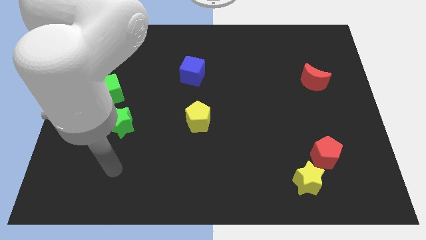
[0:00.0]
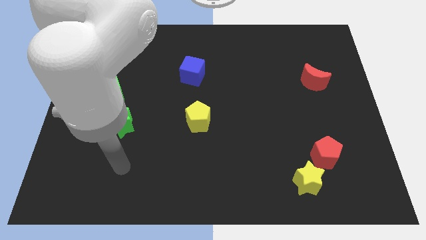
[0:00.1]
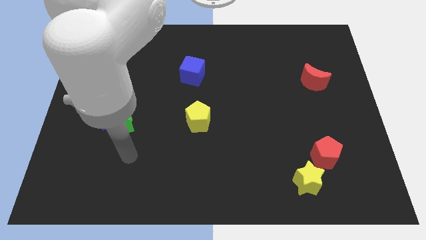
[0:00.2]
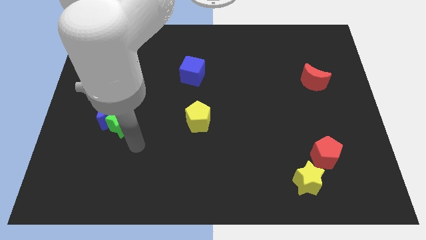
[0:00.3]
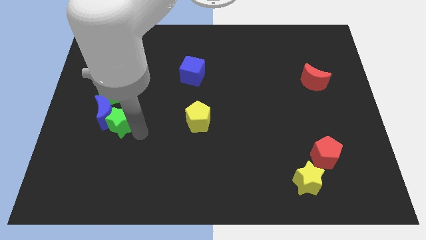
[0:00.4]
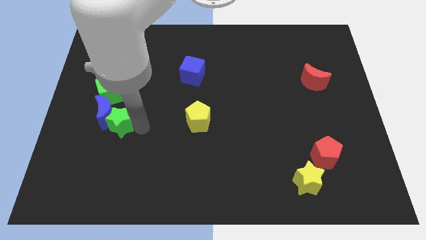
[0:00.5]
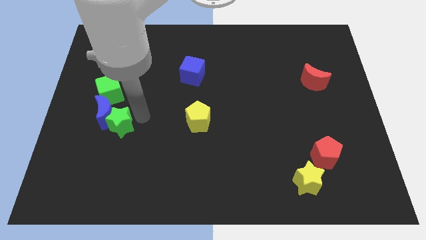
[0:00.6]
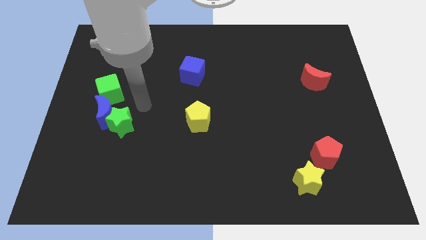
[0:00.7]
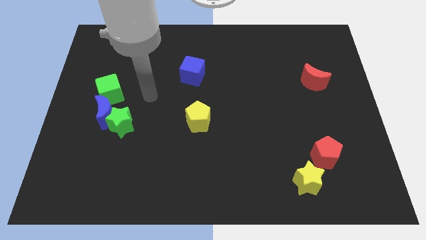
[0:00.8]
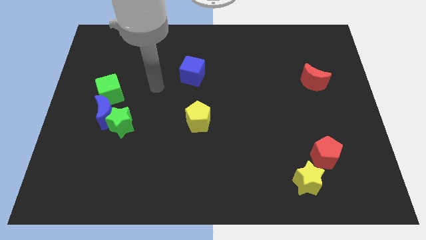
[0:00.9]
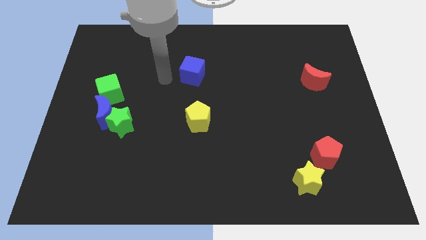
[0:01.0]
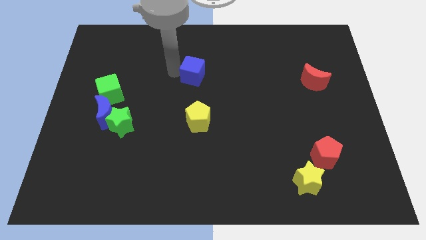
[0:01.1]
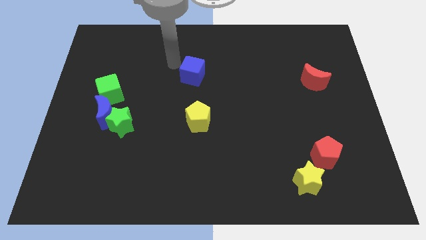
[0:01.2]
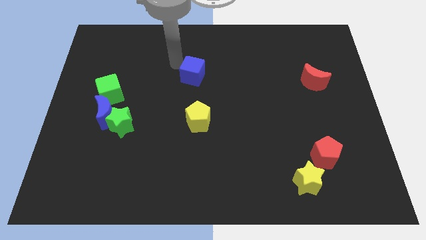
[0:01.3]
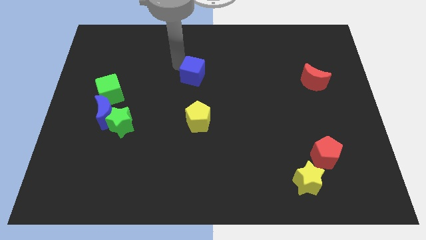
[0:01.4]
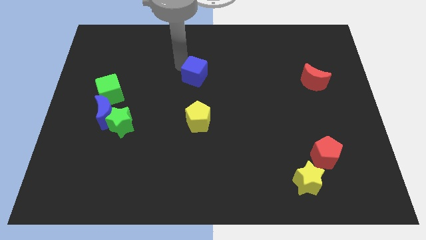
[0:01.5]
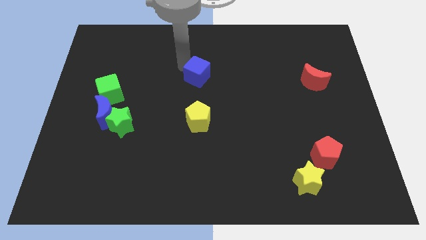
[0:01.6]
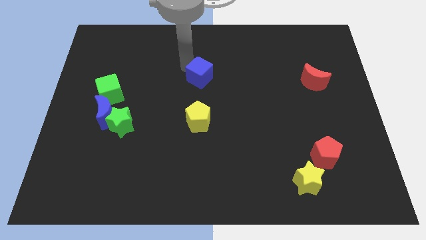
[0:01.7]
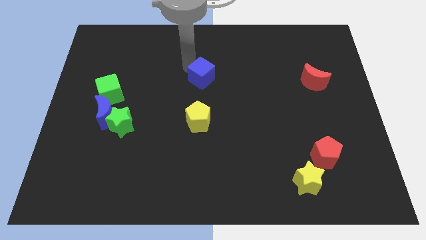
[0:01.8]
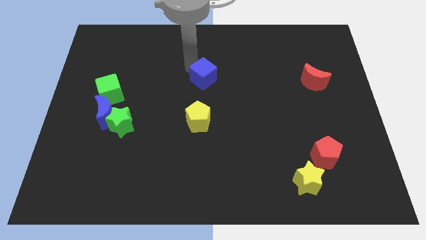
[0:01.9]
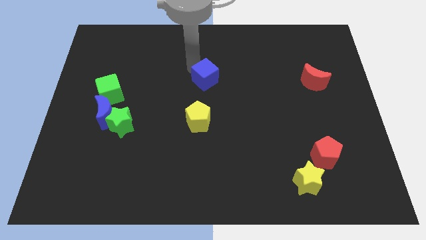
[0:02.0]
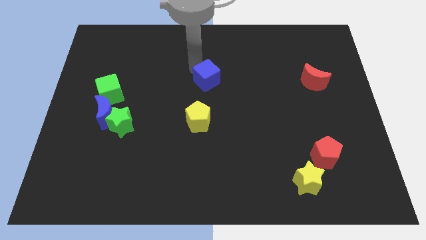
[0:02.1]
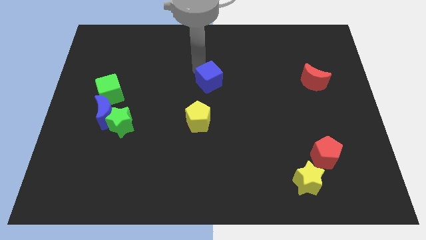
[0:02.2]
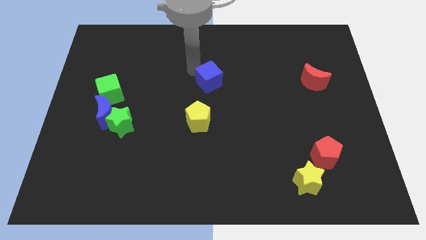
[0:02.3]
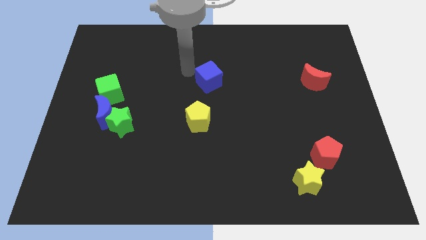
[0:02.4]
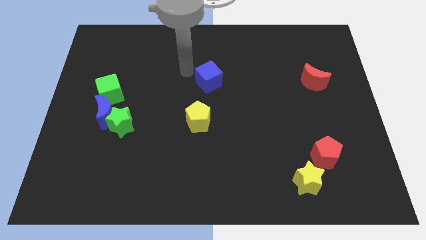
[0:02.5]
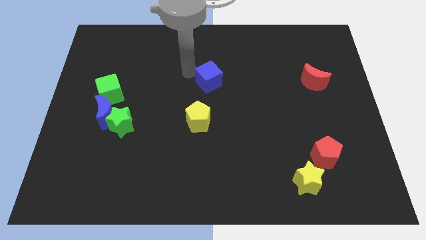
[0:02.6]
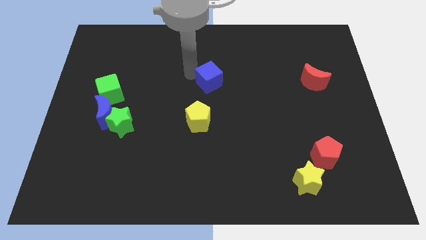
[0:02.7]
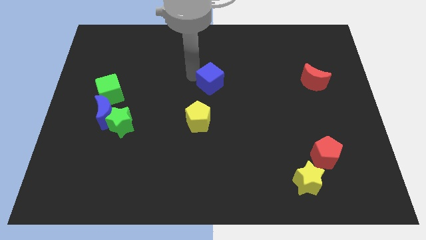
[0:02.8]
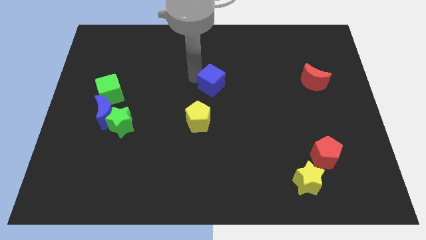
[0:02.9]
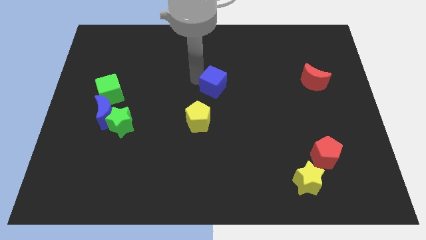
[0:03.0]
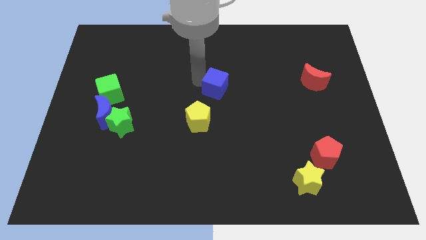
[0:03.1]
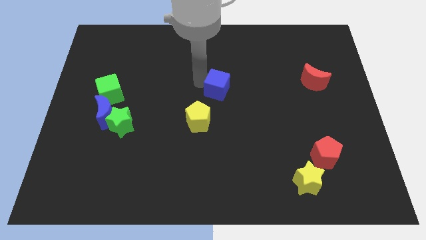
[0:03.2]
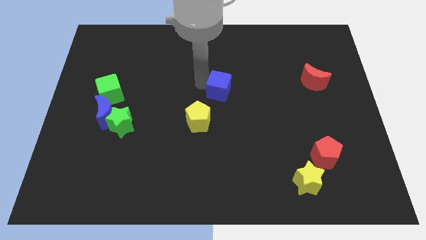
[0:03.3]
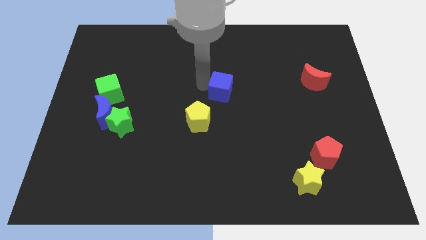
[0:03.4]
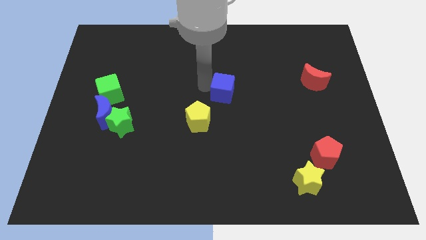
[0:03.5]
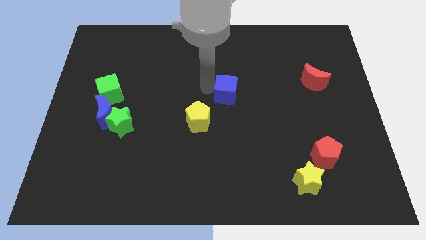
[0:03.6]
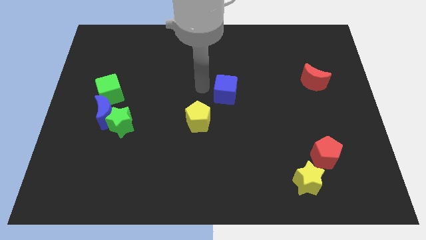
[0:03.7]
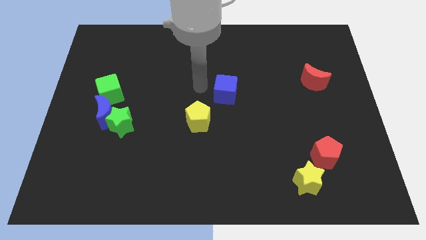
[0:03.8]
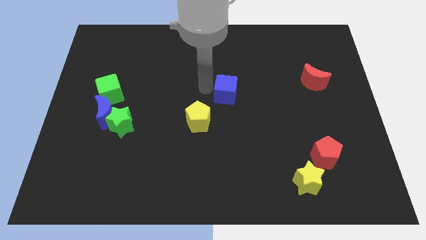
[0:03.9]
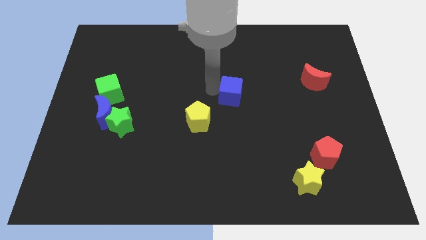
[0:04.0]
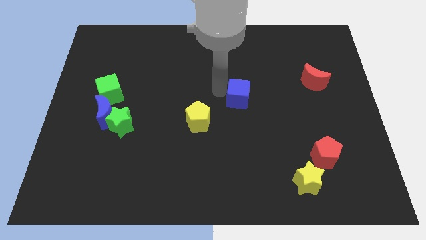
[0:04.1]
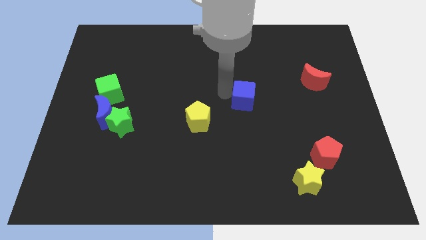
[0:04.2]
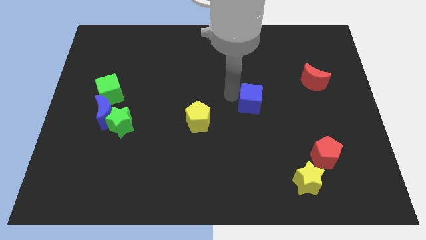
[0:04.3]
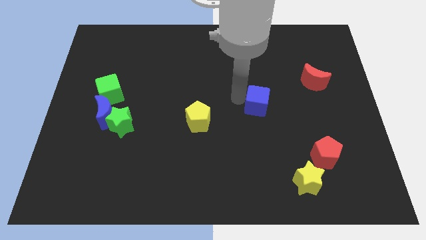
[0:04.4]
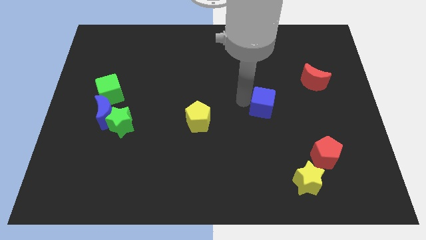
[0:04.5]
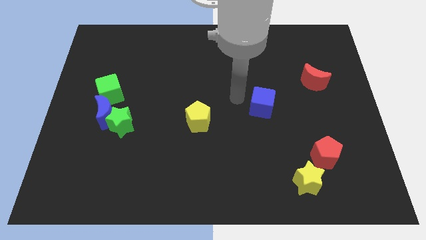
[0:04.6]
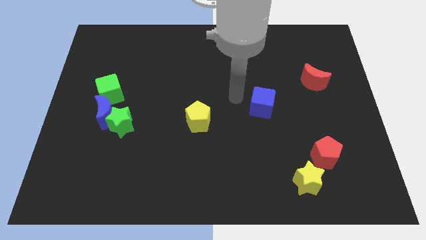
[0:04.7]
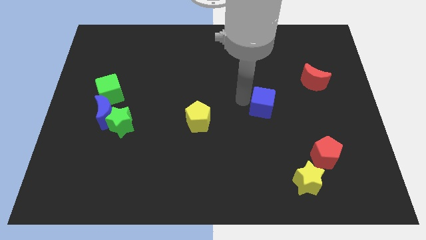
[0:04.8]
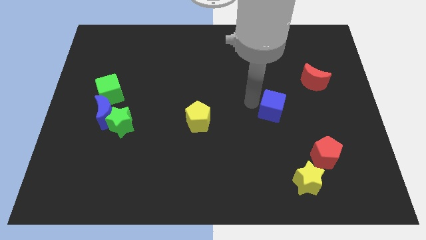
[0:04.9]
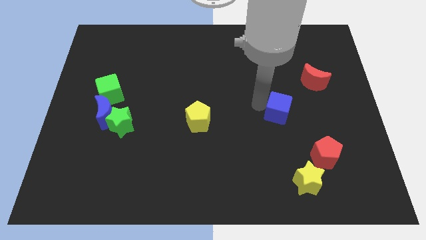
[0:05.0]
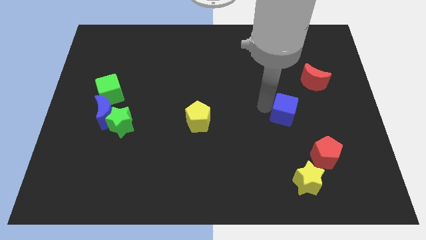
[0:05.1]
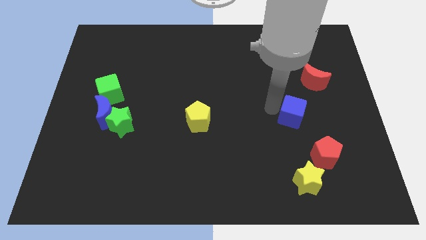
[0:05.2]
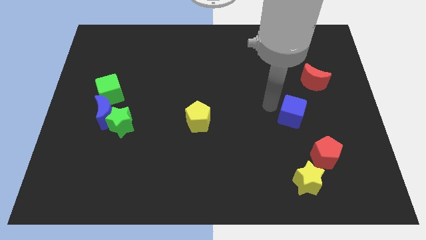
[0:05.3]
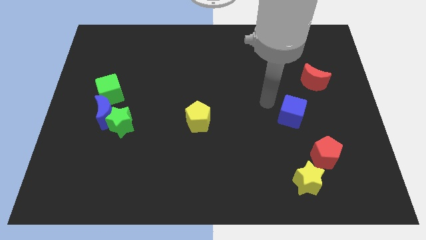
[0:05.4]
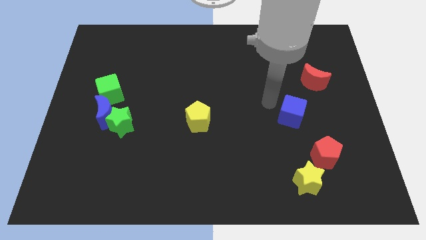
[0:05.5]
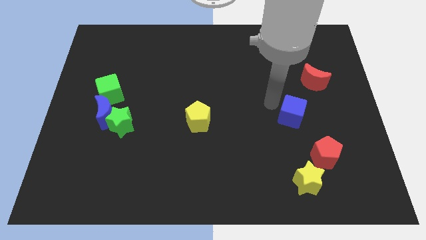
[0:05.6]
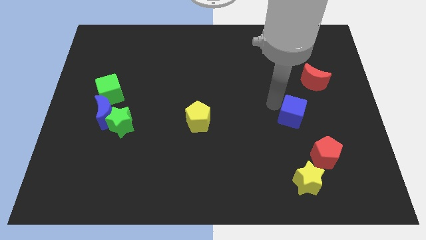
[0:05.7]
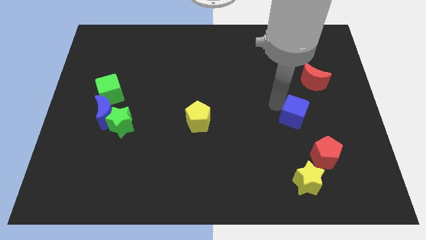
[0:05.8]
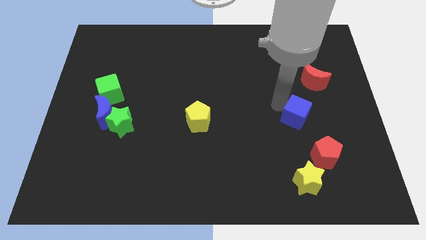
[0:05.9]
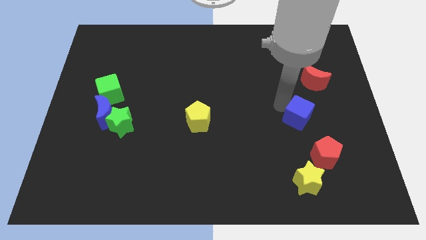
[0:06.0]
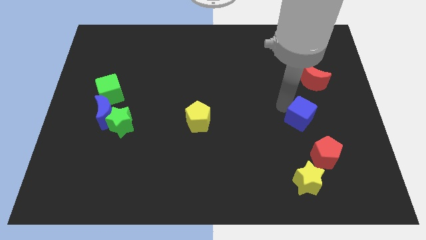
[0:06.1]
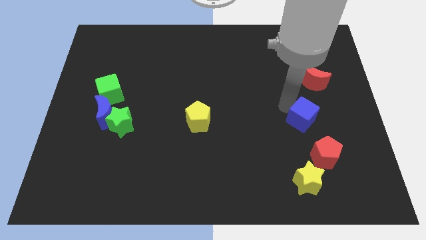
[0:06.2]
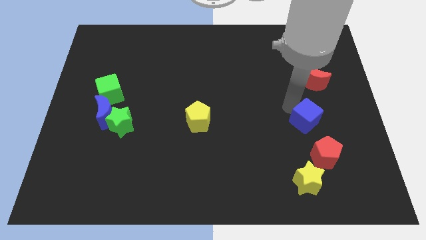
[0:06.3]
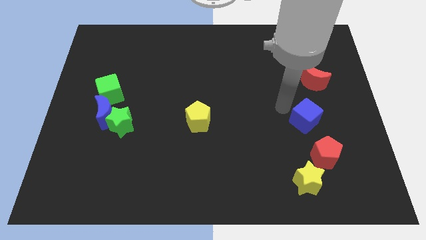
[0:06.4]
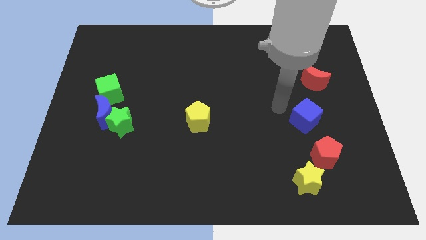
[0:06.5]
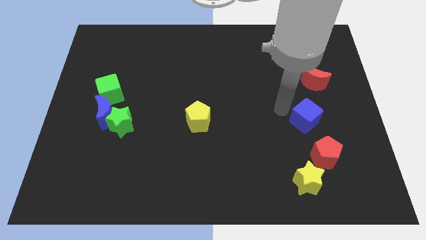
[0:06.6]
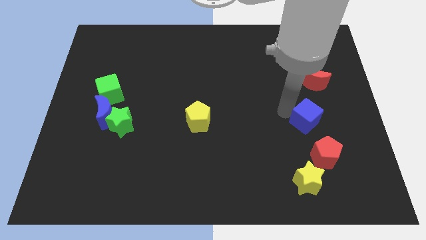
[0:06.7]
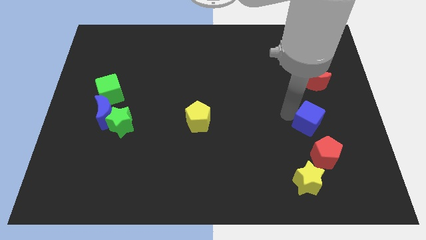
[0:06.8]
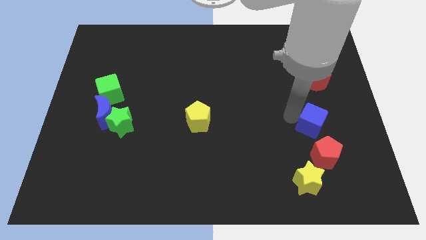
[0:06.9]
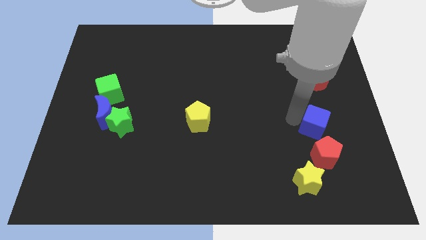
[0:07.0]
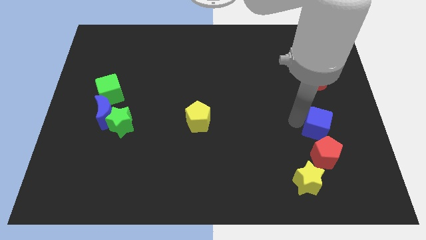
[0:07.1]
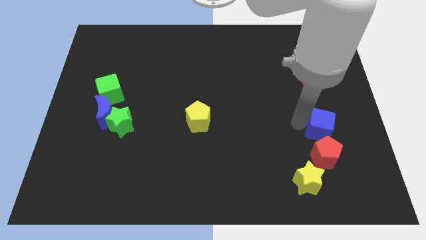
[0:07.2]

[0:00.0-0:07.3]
slide the blue cube to the top right of the red pentagon

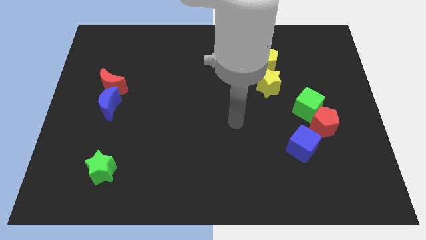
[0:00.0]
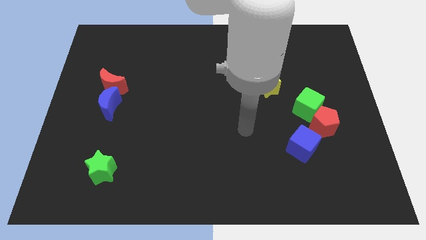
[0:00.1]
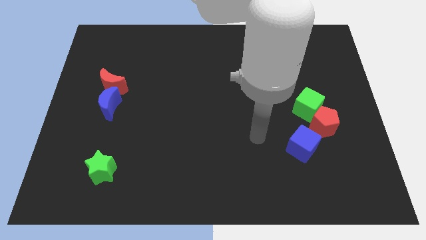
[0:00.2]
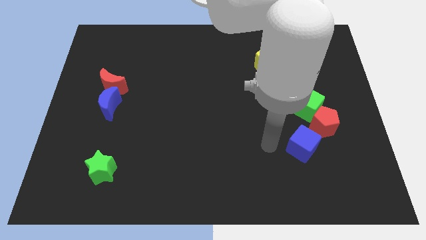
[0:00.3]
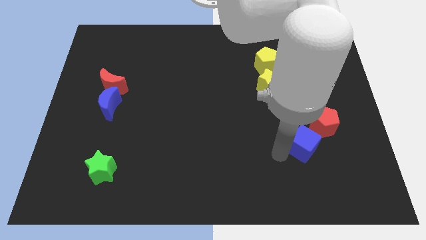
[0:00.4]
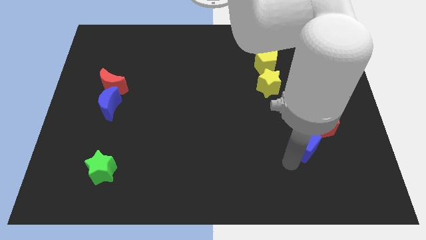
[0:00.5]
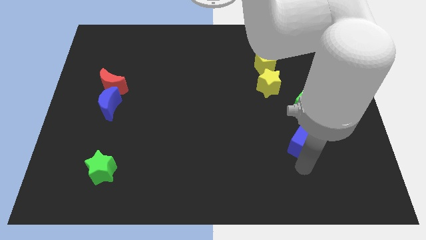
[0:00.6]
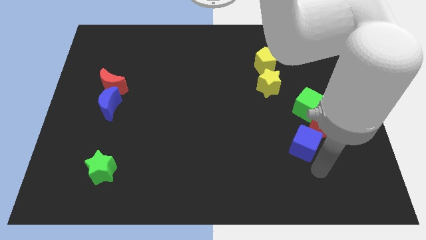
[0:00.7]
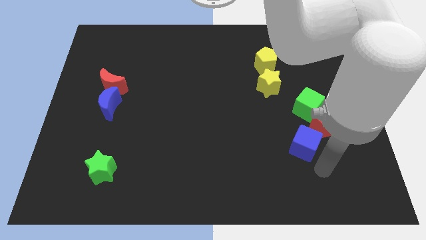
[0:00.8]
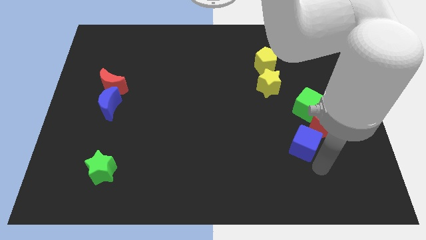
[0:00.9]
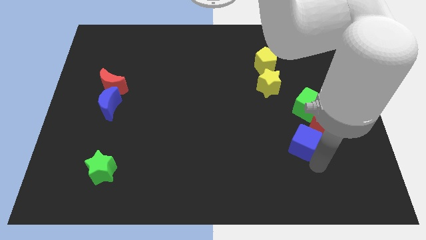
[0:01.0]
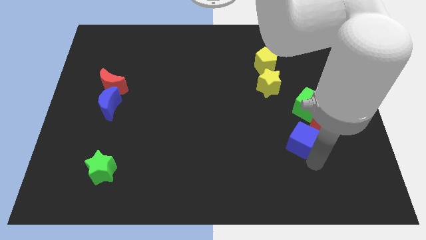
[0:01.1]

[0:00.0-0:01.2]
move the blue cube to the bottom left side of the green cube
